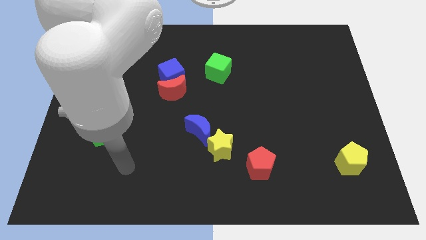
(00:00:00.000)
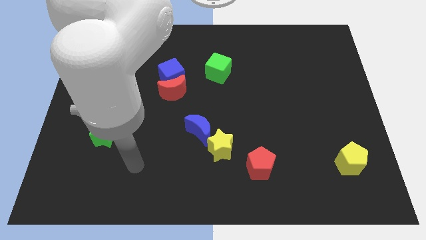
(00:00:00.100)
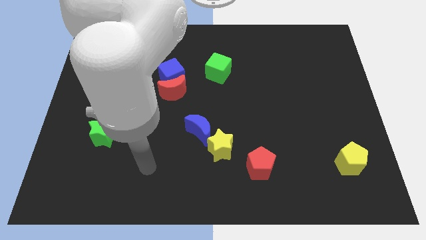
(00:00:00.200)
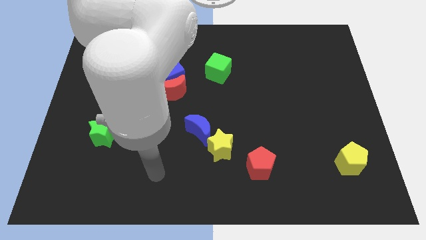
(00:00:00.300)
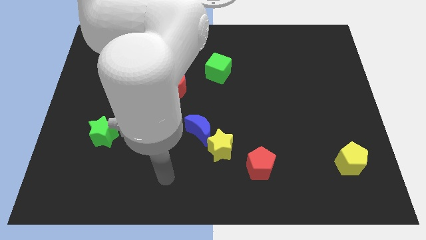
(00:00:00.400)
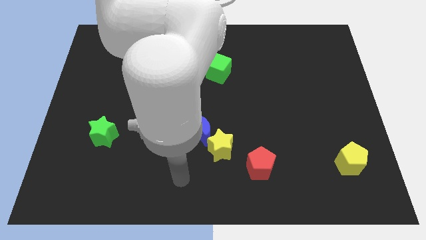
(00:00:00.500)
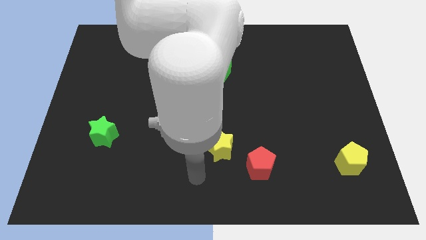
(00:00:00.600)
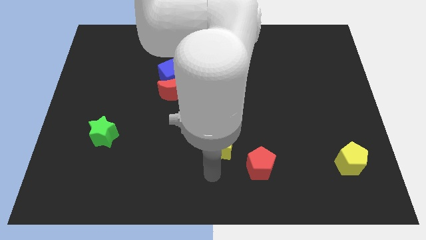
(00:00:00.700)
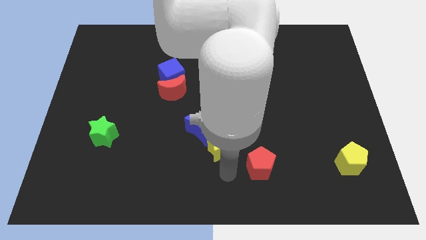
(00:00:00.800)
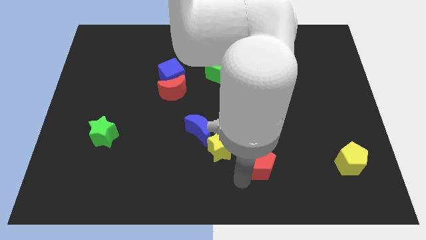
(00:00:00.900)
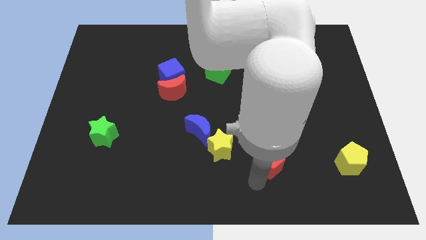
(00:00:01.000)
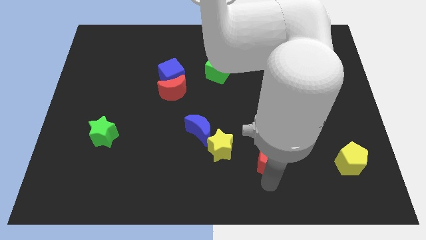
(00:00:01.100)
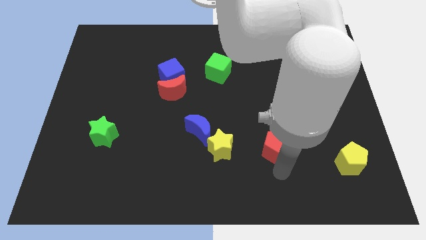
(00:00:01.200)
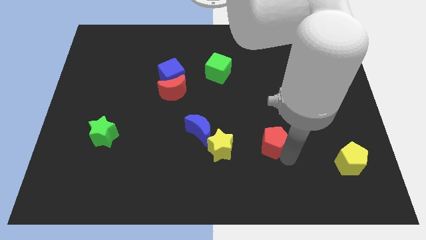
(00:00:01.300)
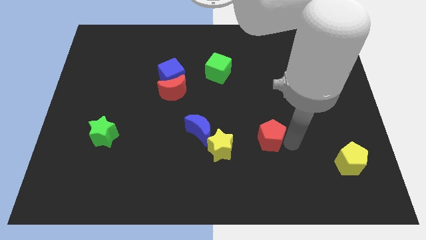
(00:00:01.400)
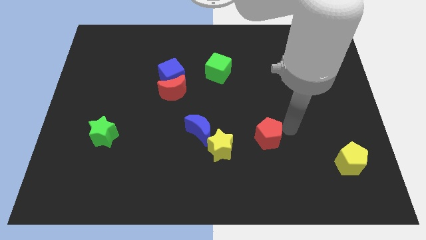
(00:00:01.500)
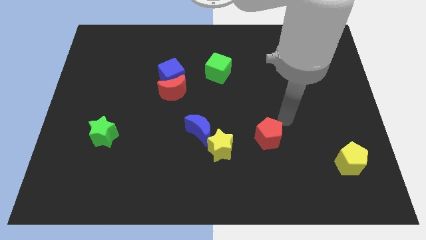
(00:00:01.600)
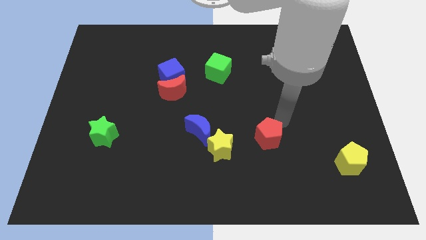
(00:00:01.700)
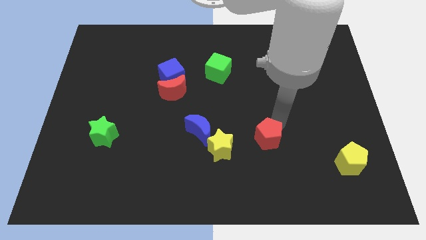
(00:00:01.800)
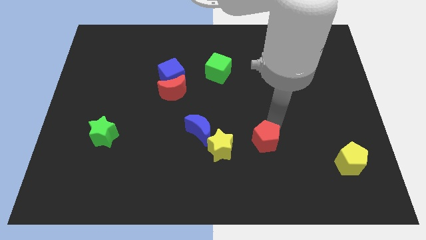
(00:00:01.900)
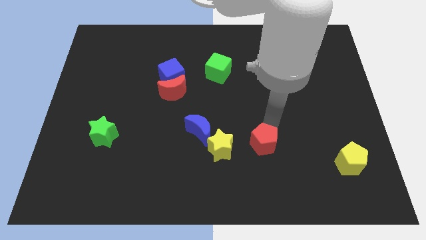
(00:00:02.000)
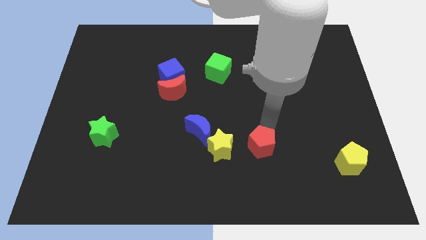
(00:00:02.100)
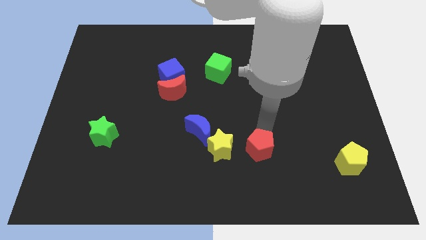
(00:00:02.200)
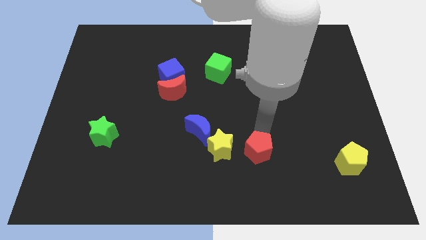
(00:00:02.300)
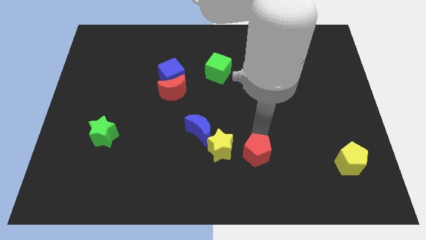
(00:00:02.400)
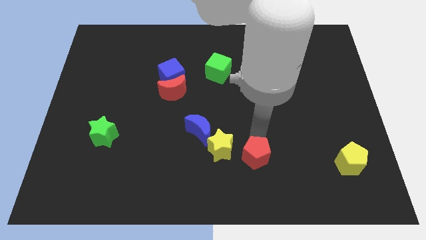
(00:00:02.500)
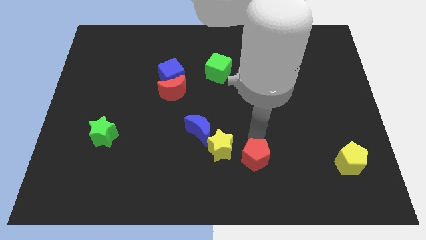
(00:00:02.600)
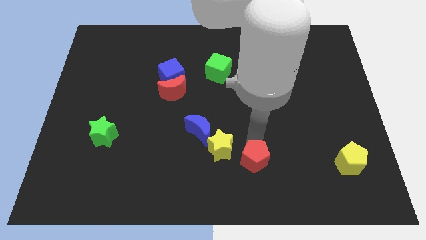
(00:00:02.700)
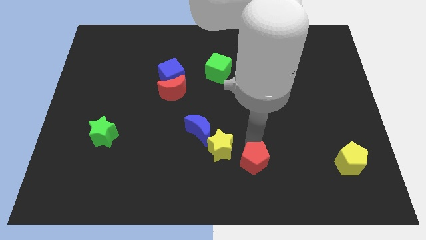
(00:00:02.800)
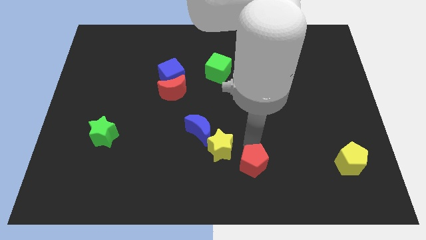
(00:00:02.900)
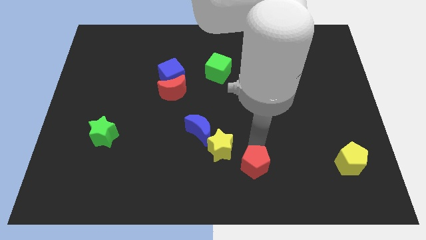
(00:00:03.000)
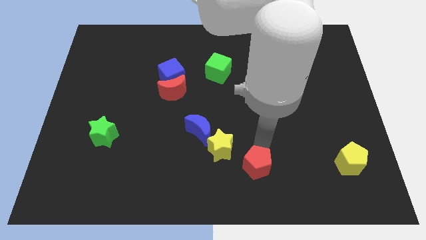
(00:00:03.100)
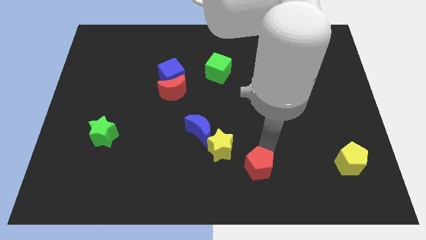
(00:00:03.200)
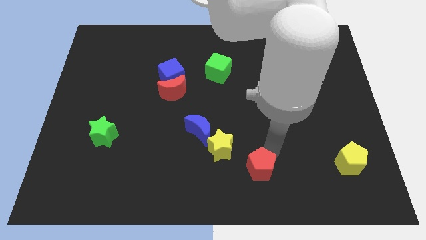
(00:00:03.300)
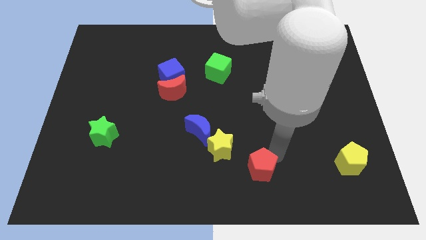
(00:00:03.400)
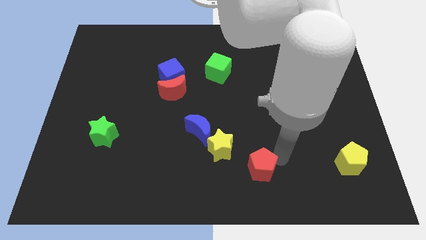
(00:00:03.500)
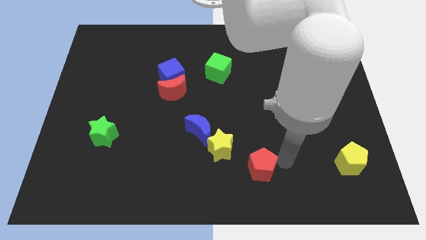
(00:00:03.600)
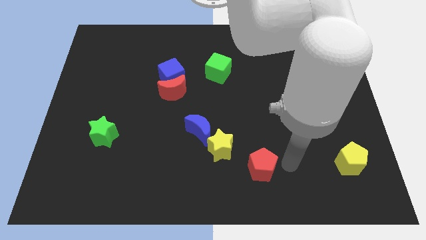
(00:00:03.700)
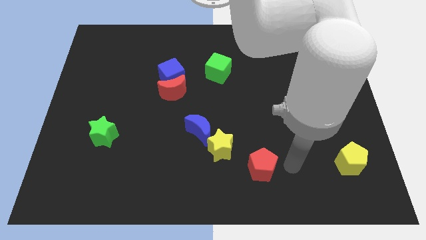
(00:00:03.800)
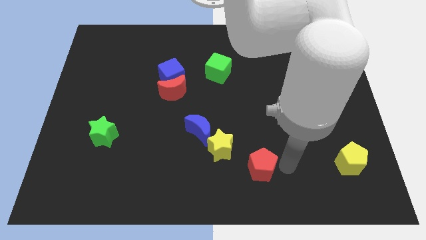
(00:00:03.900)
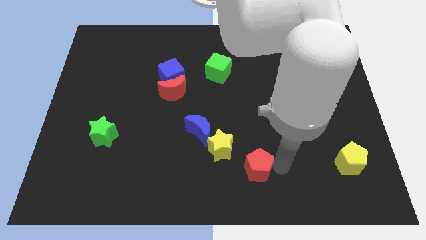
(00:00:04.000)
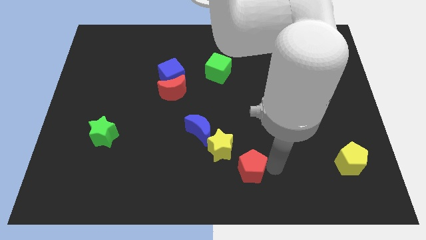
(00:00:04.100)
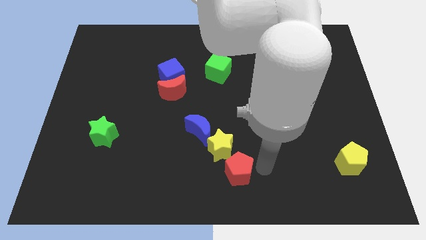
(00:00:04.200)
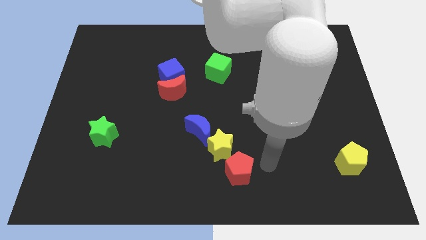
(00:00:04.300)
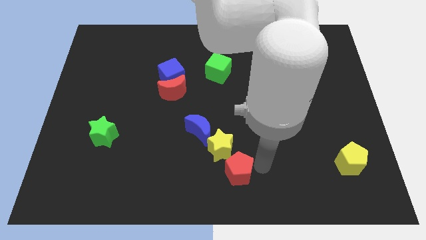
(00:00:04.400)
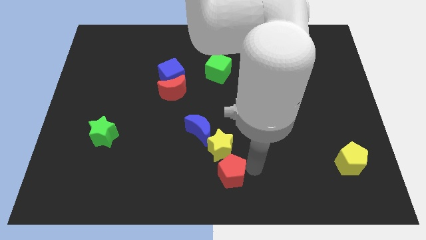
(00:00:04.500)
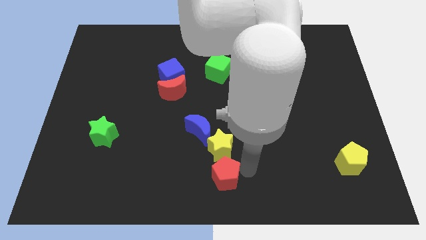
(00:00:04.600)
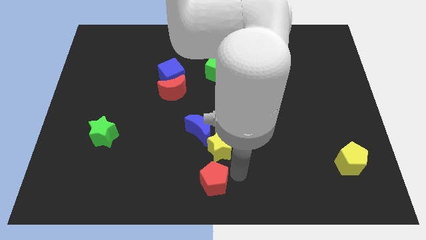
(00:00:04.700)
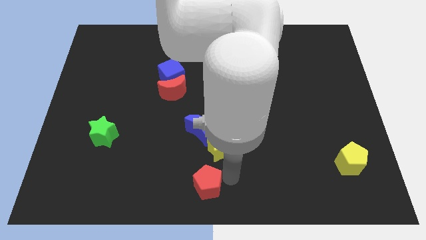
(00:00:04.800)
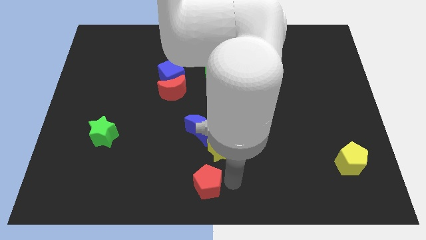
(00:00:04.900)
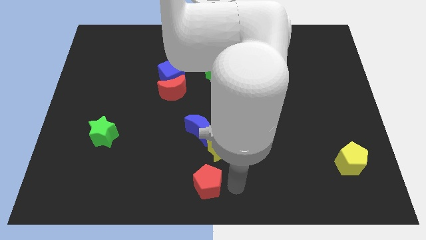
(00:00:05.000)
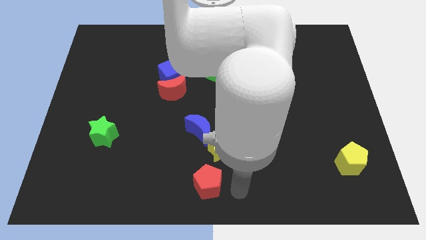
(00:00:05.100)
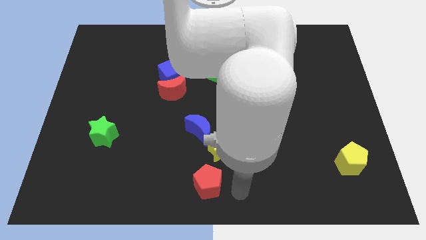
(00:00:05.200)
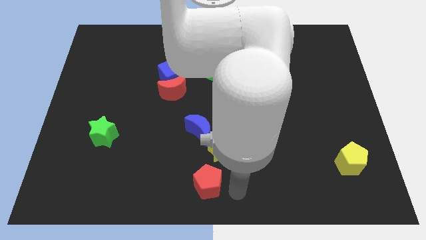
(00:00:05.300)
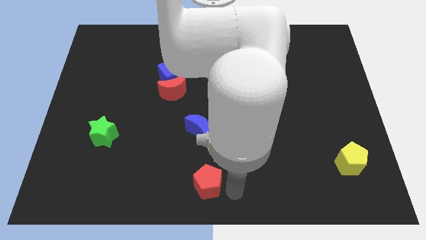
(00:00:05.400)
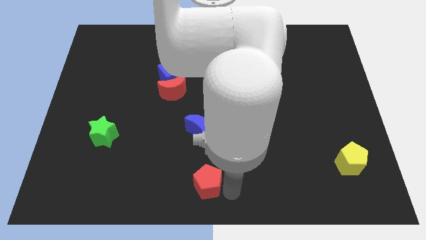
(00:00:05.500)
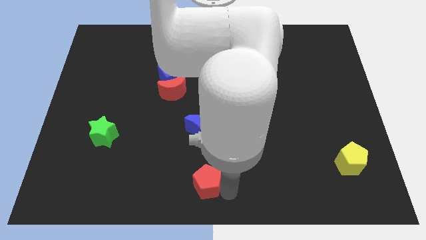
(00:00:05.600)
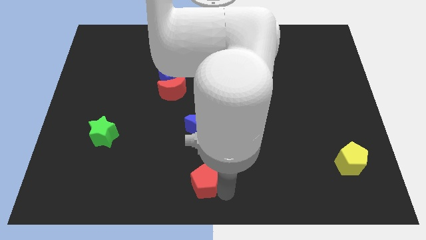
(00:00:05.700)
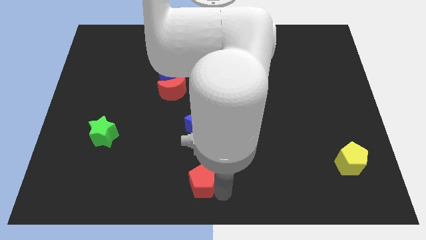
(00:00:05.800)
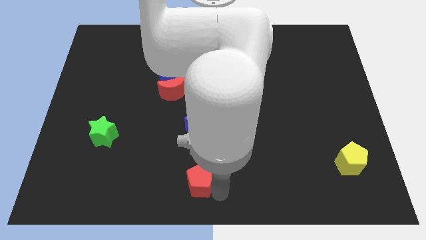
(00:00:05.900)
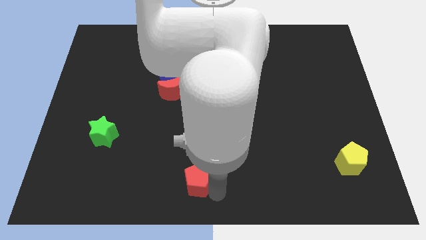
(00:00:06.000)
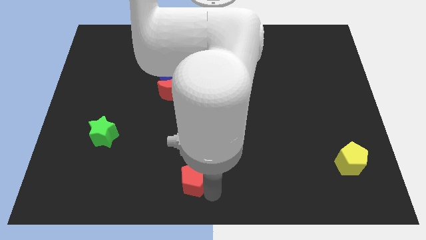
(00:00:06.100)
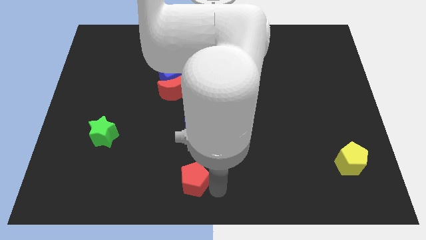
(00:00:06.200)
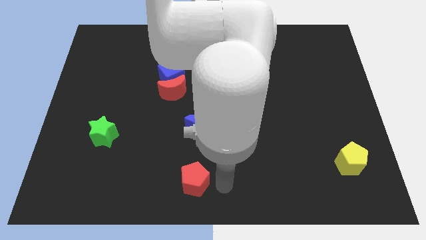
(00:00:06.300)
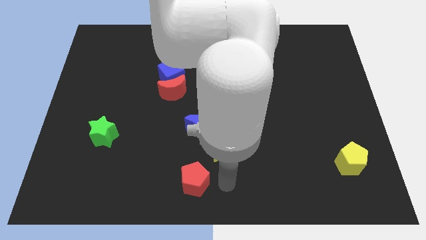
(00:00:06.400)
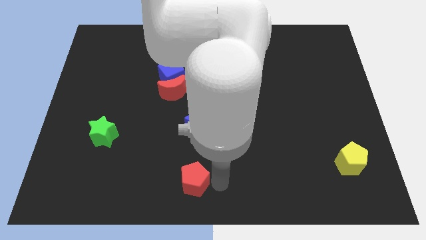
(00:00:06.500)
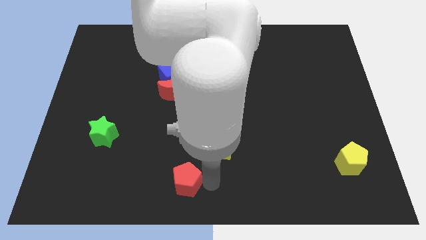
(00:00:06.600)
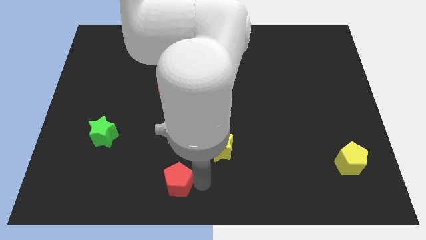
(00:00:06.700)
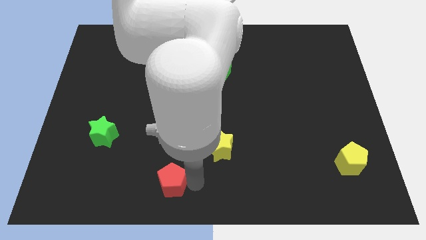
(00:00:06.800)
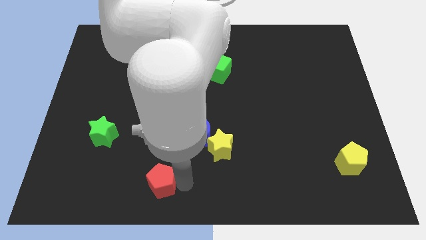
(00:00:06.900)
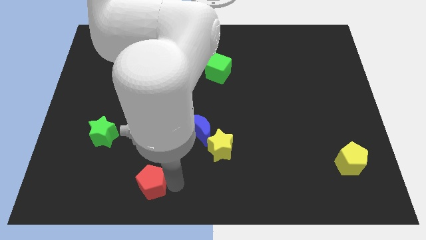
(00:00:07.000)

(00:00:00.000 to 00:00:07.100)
push the red pentagon left

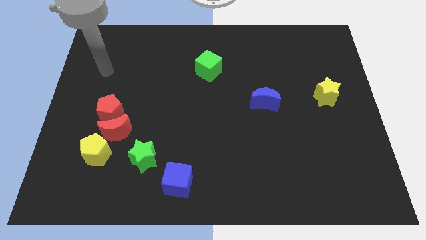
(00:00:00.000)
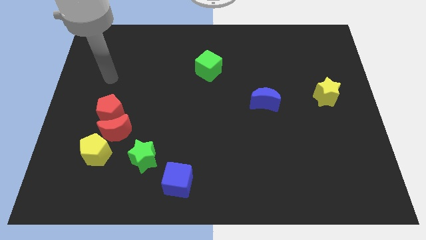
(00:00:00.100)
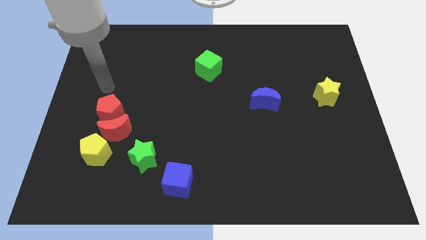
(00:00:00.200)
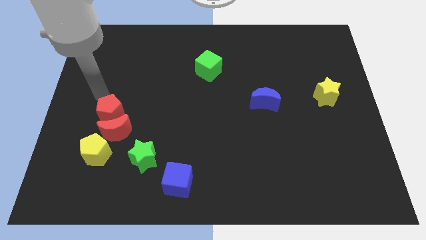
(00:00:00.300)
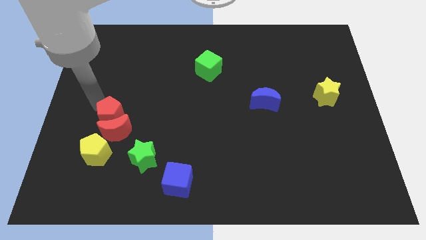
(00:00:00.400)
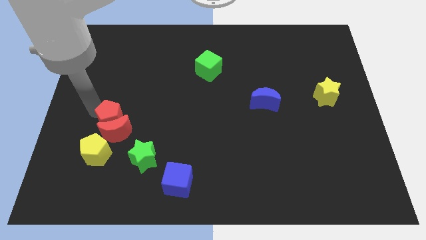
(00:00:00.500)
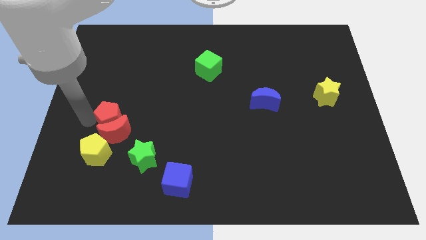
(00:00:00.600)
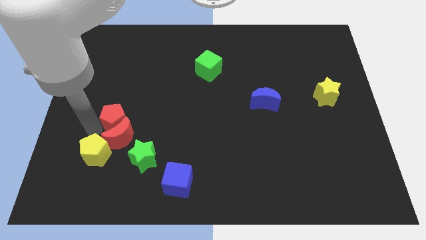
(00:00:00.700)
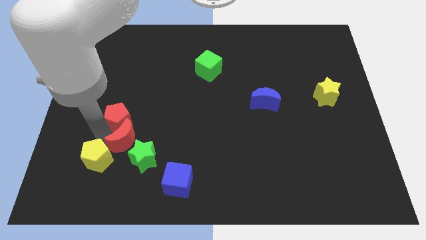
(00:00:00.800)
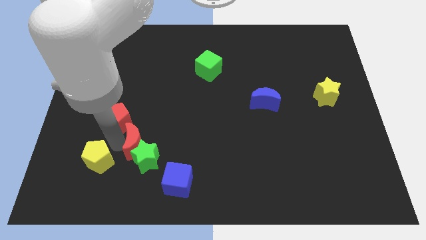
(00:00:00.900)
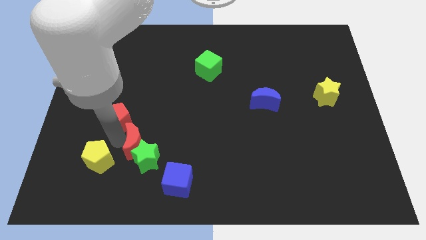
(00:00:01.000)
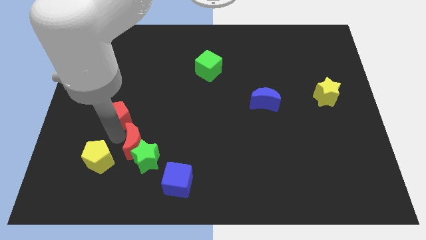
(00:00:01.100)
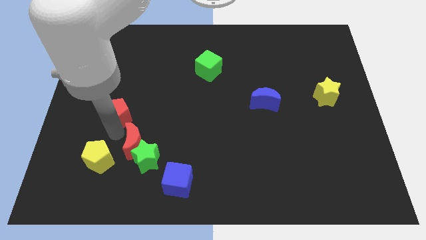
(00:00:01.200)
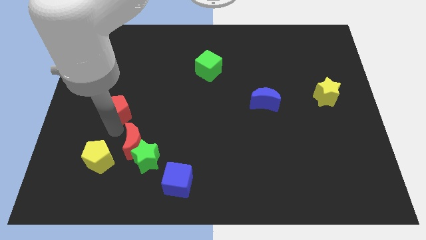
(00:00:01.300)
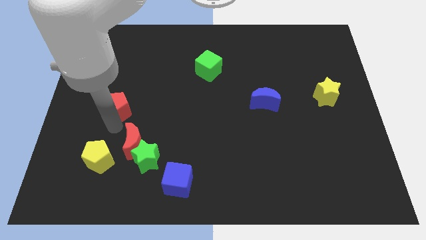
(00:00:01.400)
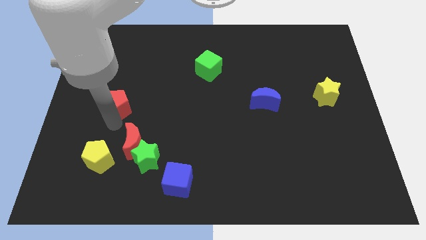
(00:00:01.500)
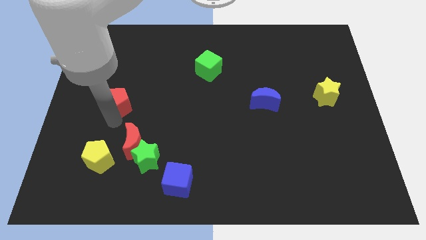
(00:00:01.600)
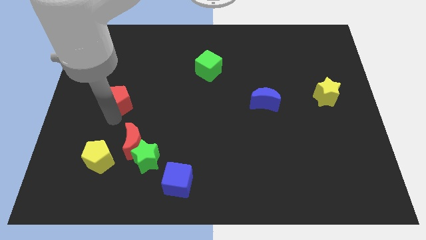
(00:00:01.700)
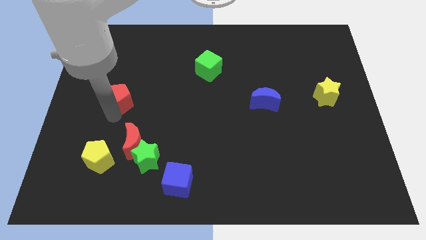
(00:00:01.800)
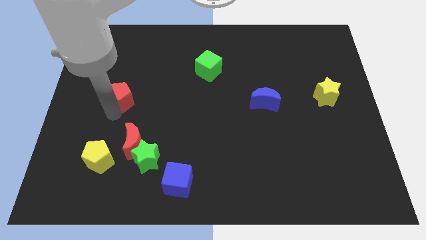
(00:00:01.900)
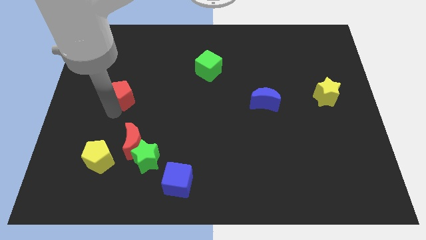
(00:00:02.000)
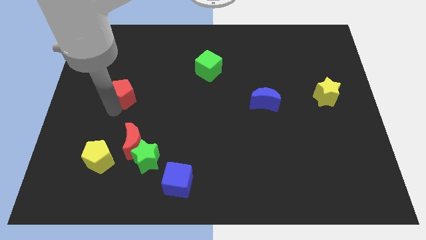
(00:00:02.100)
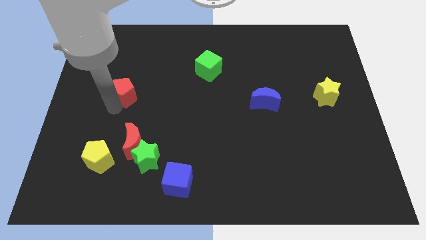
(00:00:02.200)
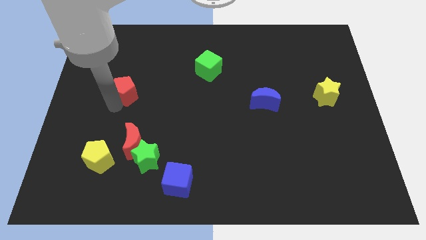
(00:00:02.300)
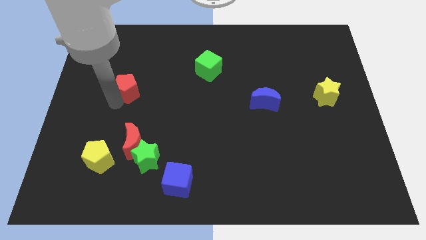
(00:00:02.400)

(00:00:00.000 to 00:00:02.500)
move the red pentagon up somewhat
